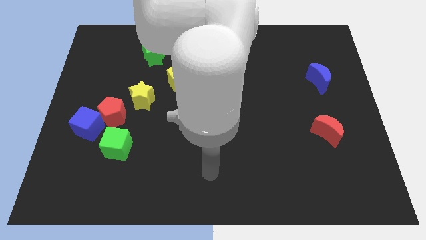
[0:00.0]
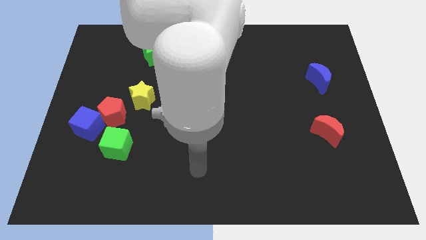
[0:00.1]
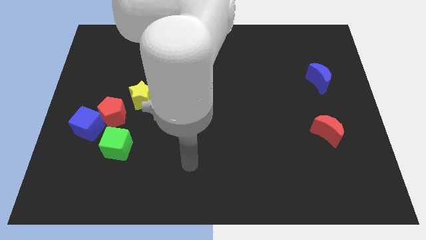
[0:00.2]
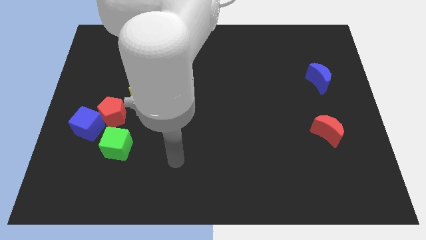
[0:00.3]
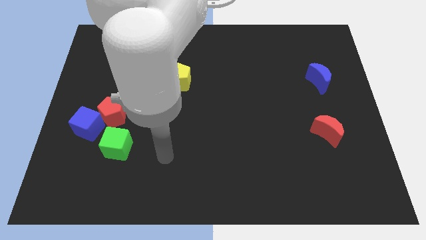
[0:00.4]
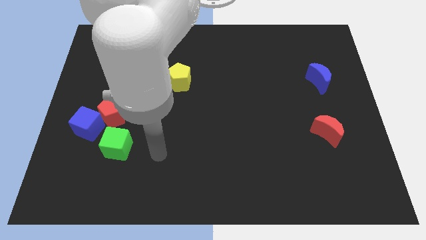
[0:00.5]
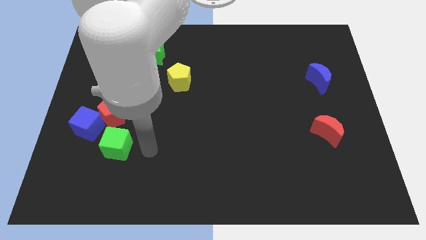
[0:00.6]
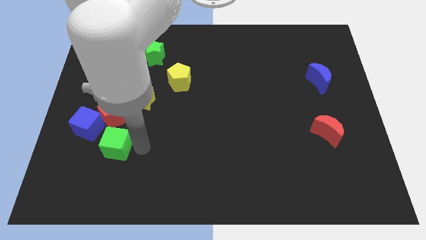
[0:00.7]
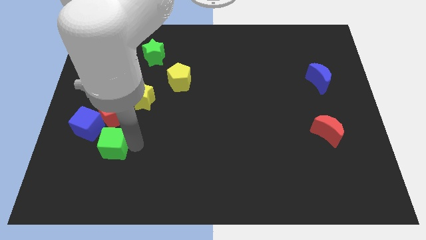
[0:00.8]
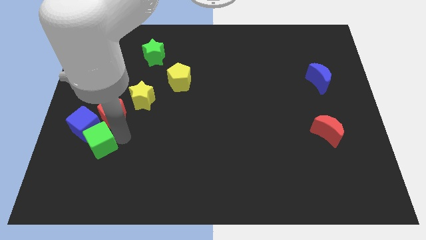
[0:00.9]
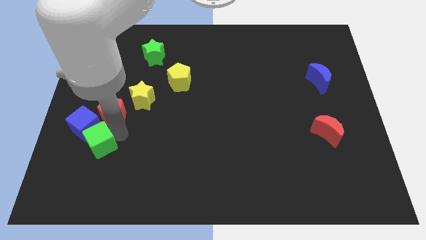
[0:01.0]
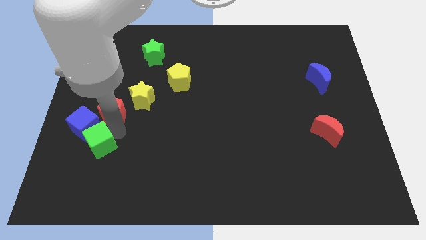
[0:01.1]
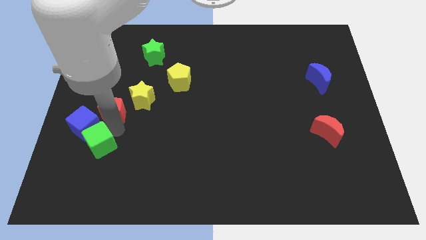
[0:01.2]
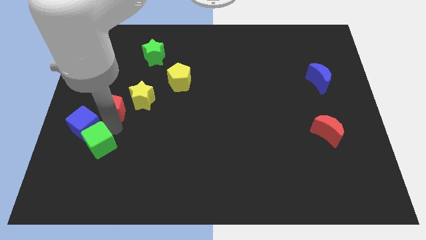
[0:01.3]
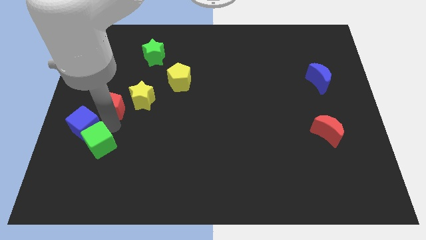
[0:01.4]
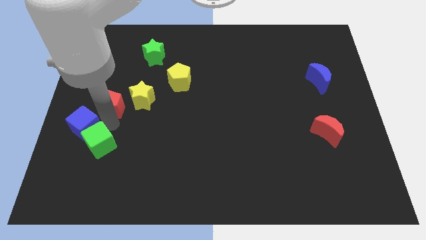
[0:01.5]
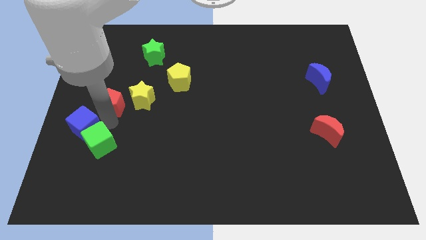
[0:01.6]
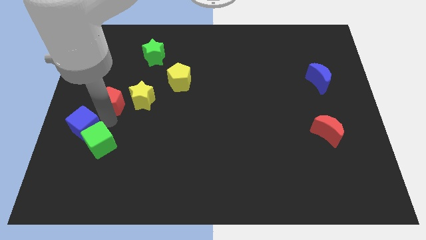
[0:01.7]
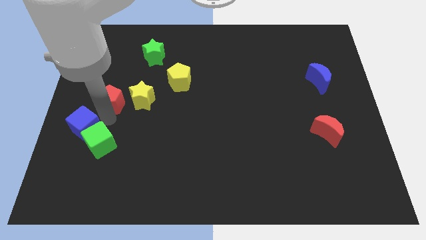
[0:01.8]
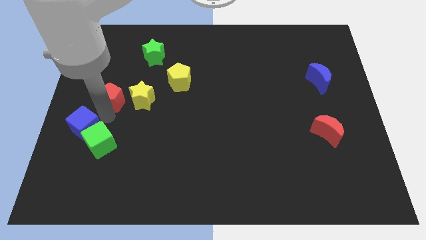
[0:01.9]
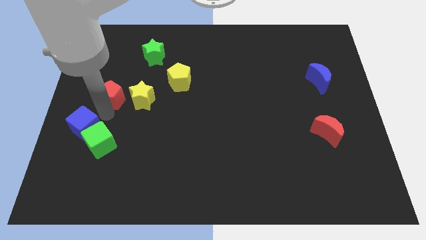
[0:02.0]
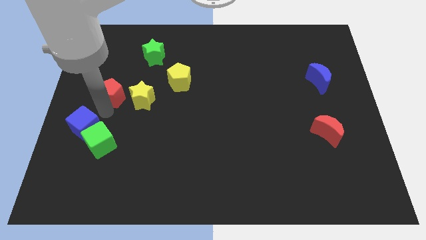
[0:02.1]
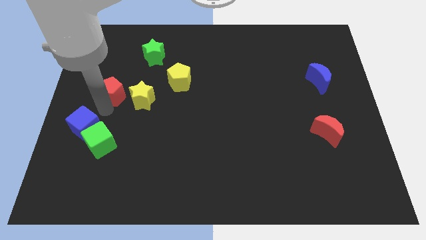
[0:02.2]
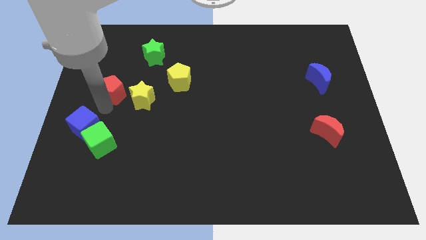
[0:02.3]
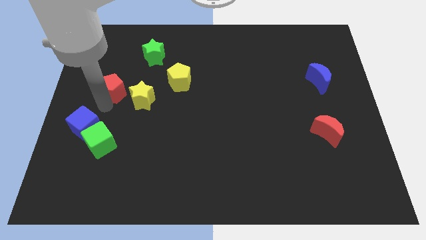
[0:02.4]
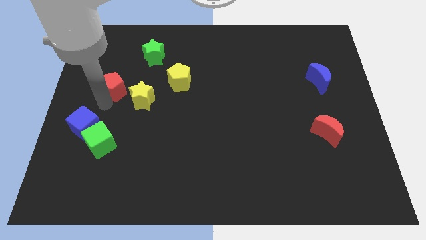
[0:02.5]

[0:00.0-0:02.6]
pull the red pentagon apart from the blue cube, yellow star, and green cube

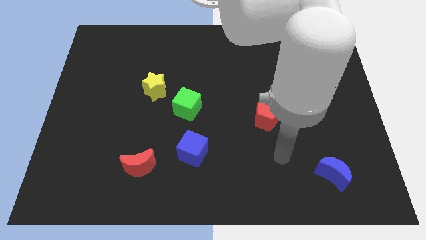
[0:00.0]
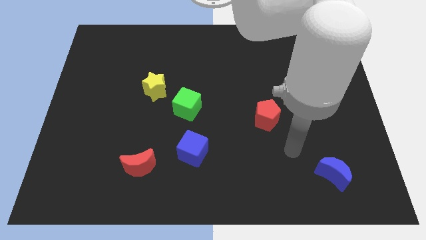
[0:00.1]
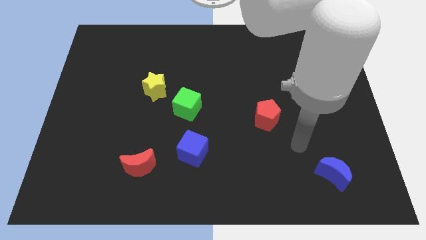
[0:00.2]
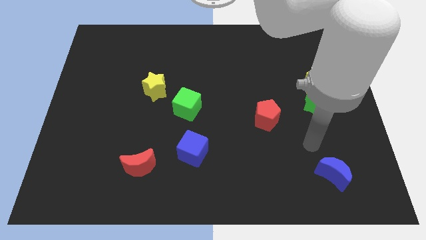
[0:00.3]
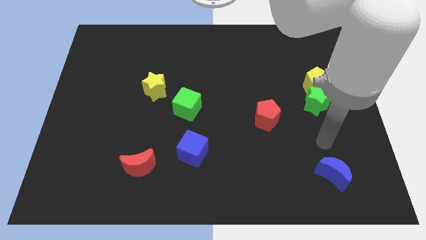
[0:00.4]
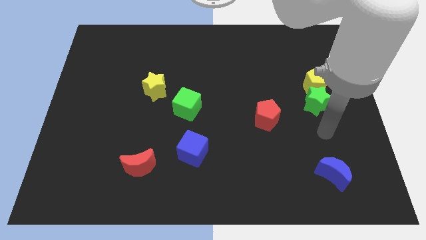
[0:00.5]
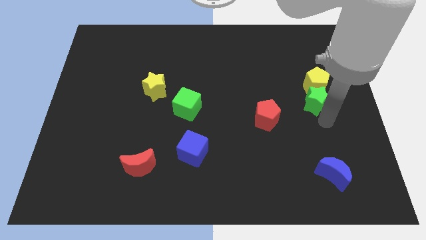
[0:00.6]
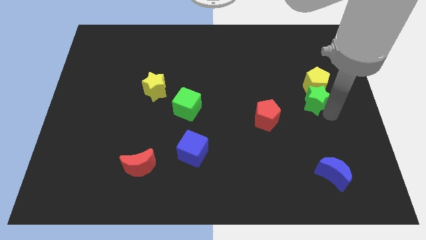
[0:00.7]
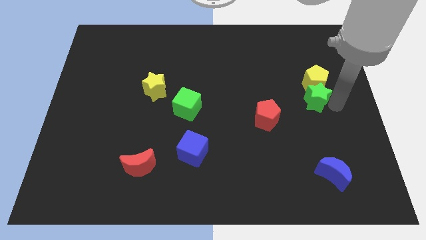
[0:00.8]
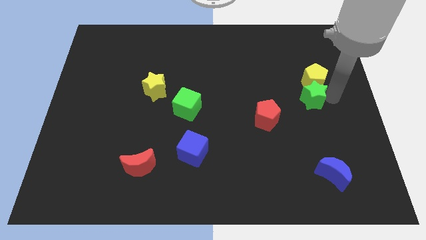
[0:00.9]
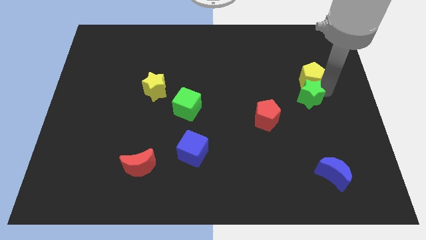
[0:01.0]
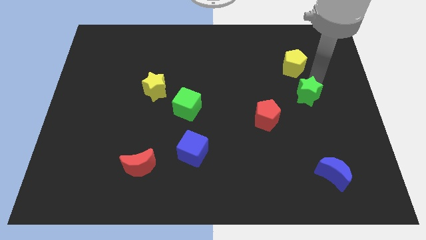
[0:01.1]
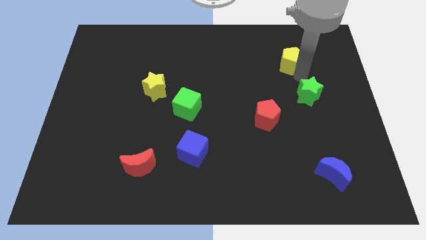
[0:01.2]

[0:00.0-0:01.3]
pull the green star apart from the yellow pentagon

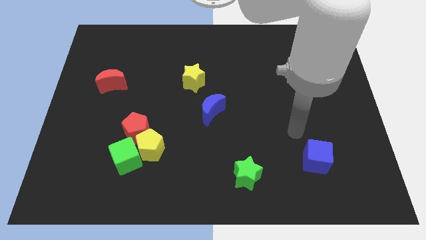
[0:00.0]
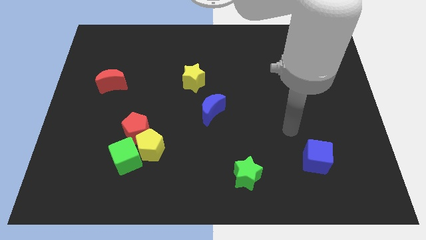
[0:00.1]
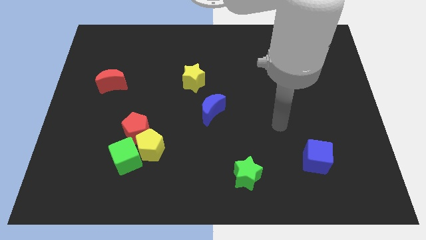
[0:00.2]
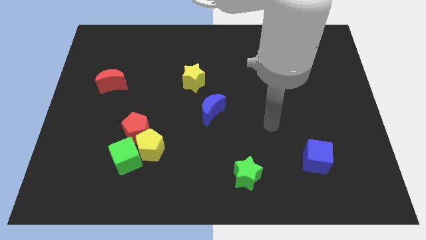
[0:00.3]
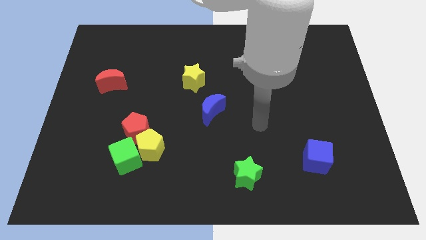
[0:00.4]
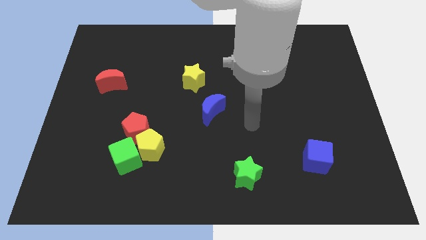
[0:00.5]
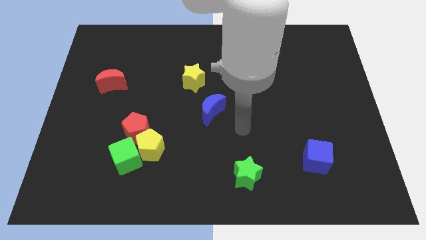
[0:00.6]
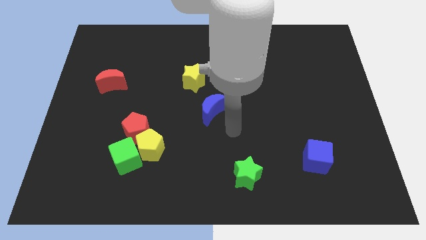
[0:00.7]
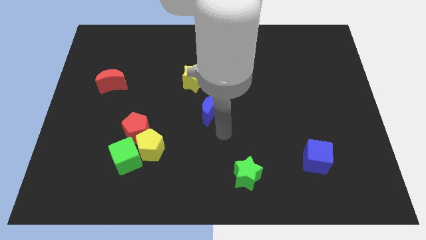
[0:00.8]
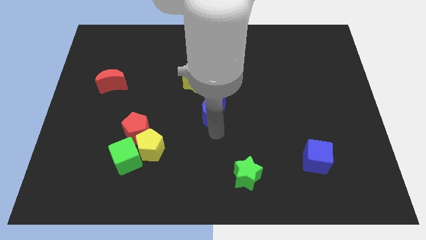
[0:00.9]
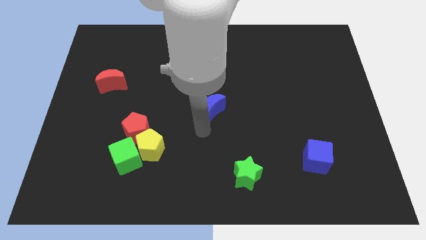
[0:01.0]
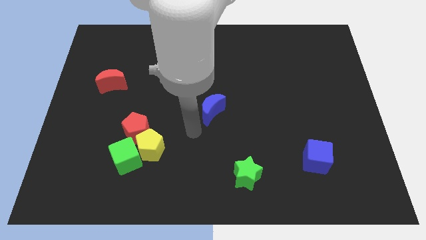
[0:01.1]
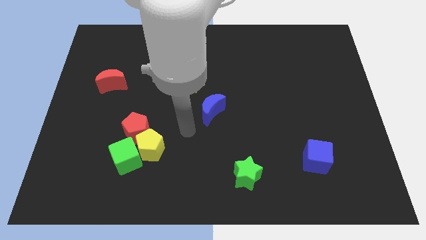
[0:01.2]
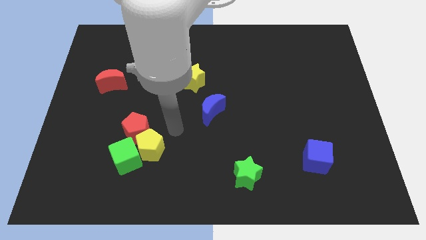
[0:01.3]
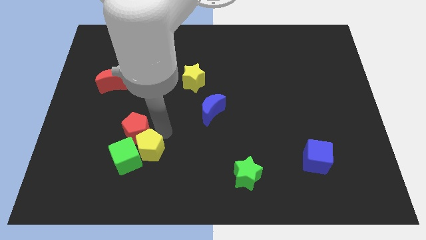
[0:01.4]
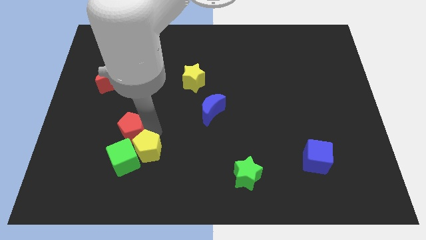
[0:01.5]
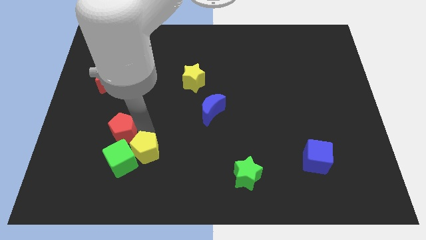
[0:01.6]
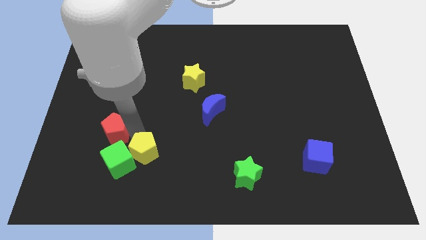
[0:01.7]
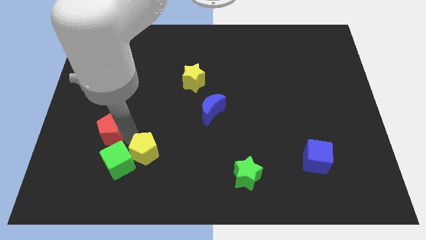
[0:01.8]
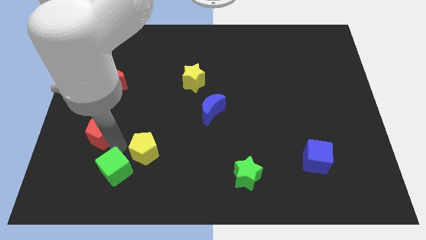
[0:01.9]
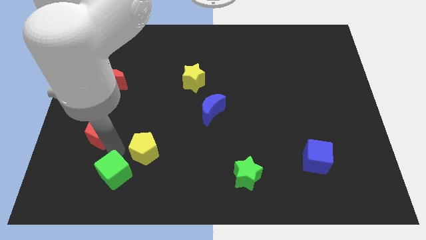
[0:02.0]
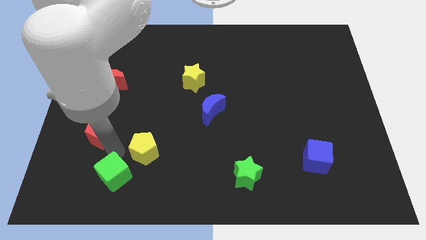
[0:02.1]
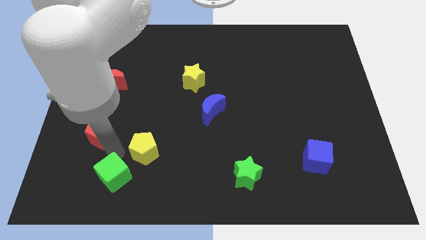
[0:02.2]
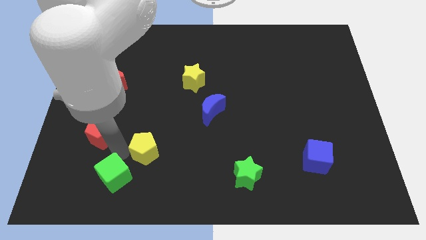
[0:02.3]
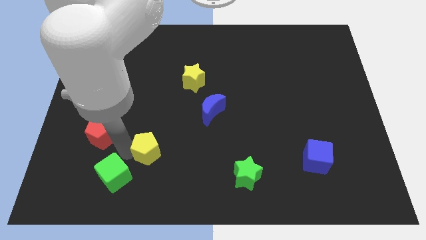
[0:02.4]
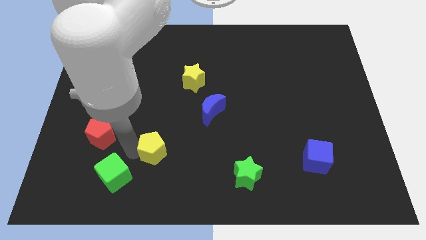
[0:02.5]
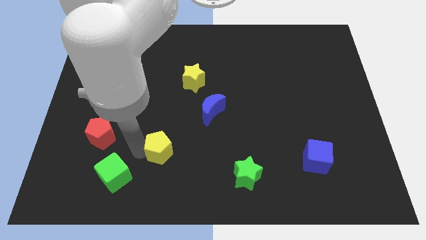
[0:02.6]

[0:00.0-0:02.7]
move the yellow pentagon away from the red pentagon and green cube

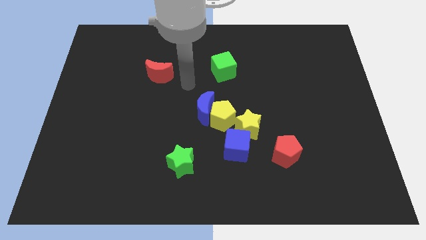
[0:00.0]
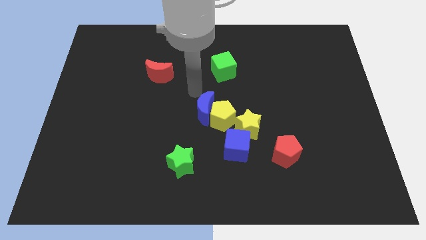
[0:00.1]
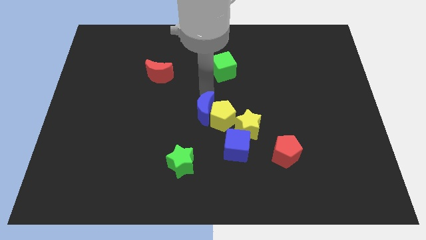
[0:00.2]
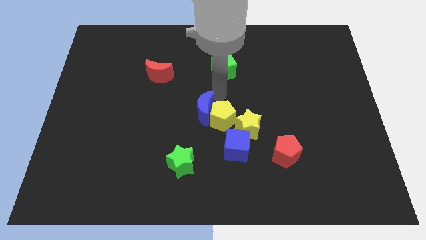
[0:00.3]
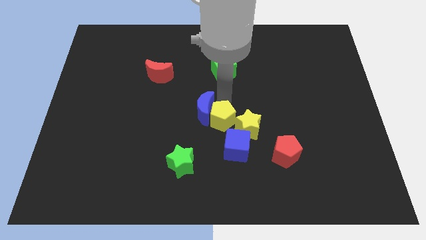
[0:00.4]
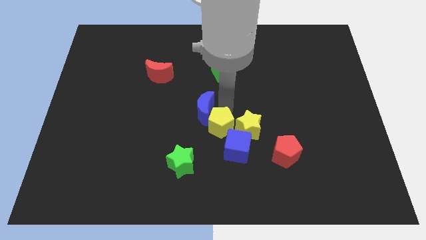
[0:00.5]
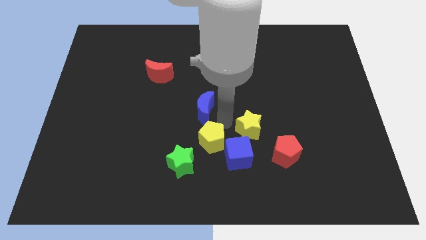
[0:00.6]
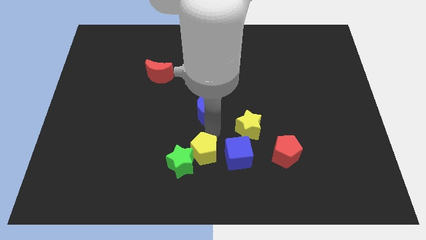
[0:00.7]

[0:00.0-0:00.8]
pull the blue moon apart from the yellow pentagon

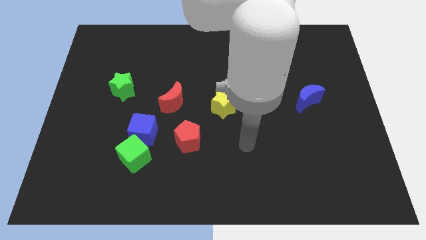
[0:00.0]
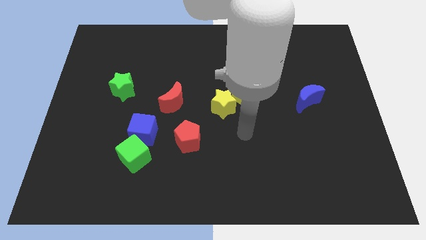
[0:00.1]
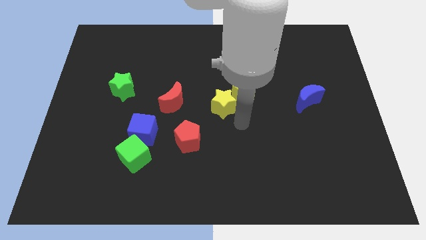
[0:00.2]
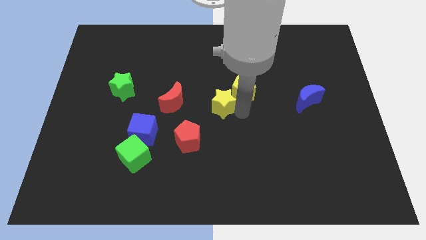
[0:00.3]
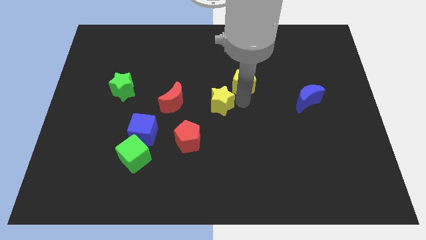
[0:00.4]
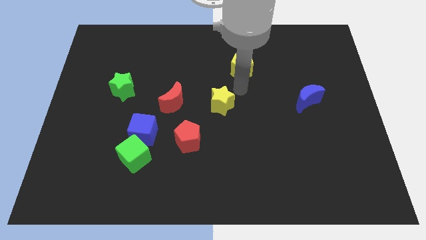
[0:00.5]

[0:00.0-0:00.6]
move the yellow star away from the yellow pentagon

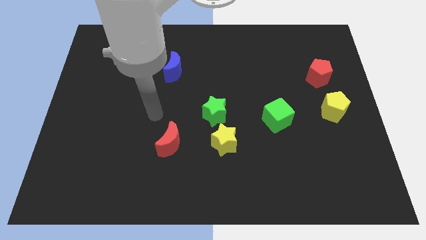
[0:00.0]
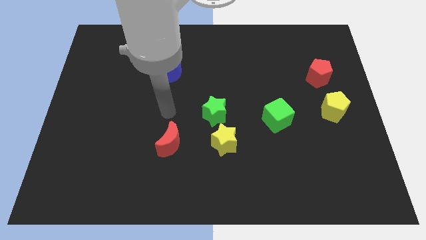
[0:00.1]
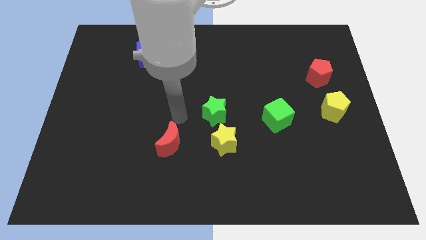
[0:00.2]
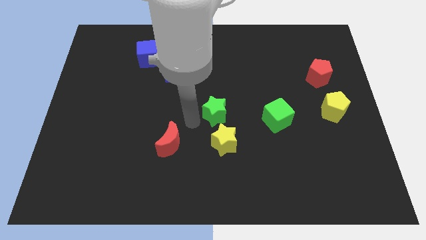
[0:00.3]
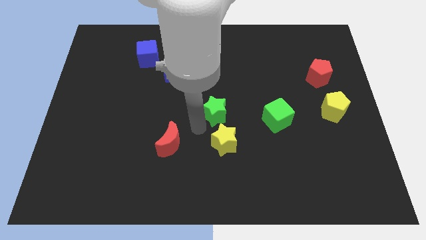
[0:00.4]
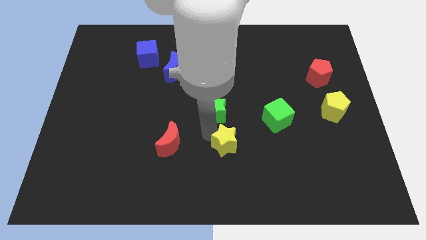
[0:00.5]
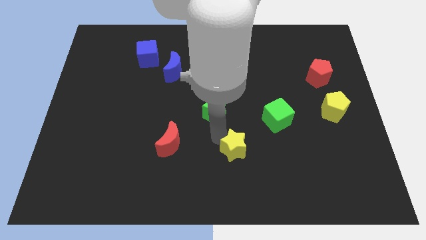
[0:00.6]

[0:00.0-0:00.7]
pull the green star apart from the yellow star

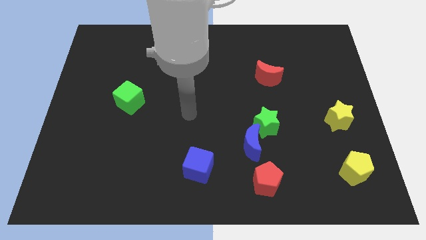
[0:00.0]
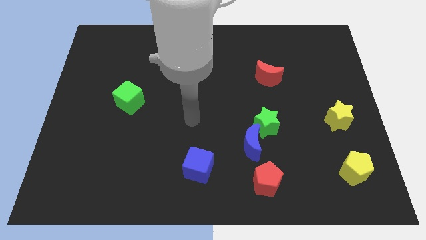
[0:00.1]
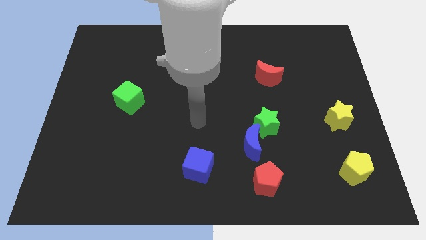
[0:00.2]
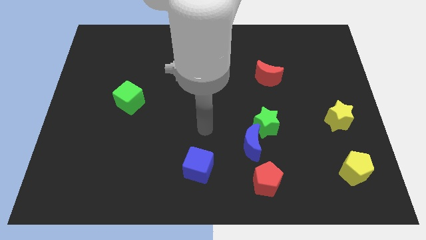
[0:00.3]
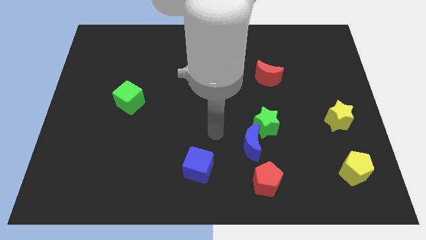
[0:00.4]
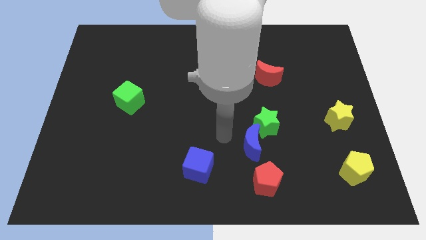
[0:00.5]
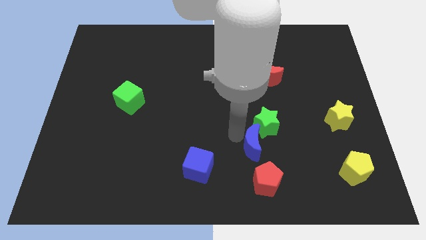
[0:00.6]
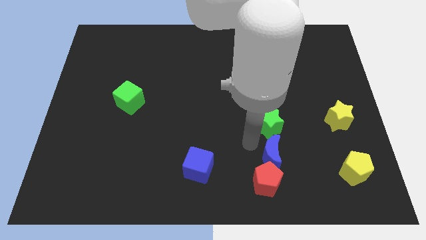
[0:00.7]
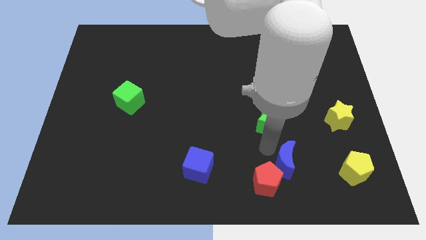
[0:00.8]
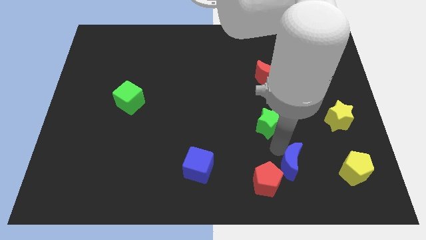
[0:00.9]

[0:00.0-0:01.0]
separate the green star from the blue moon
